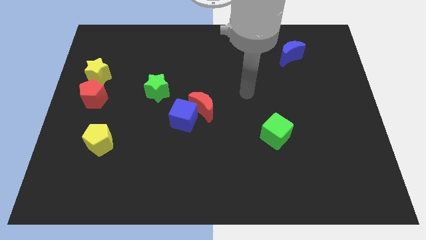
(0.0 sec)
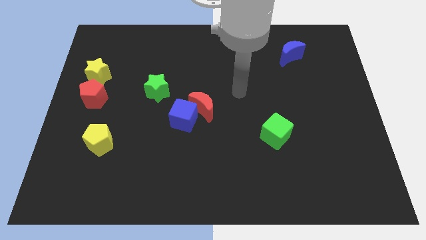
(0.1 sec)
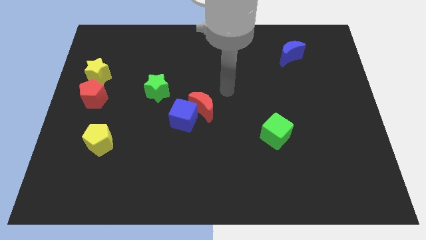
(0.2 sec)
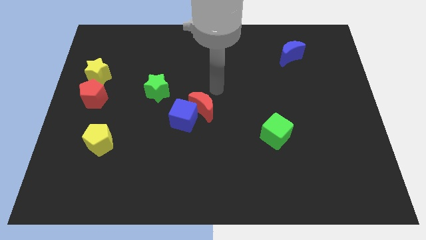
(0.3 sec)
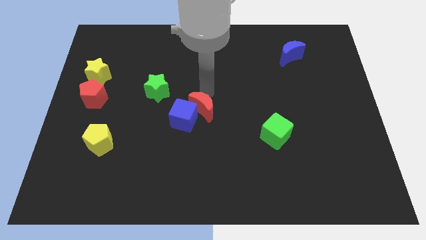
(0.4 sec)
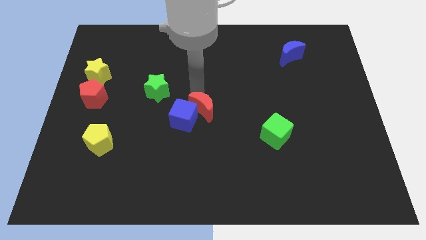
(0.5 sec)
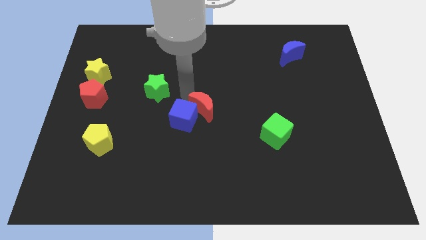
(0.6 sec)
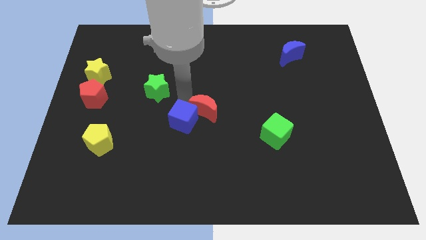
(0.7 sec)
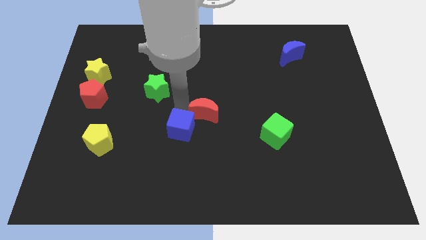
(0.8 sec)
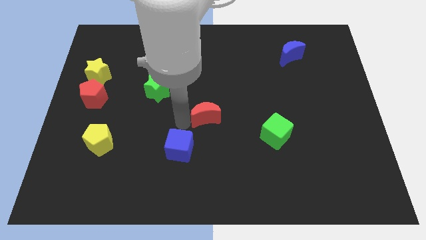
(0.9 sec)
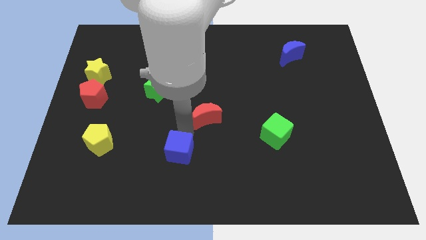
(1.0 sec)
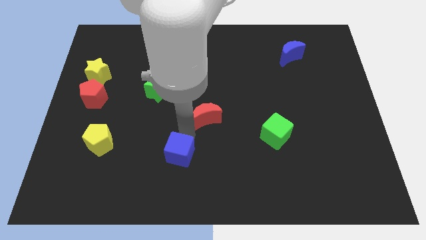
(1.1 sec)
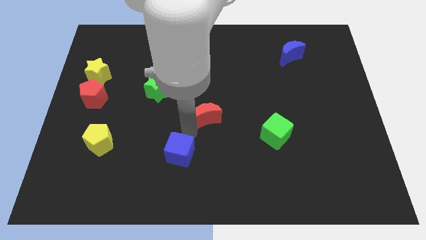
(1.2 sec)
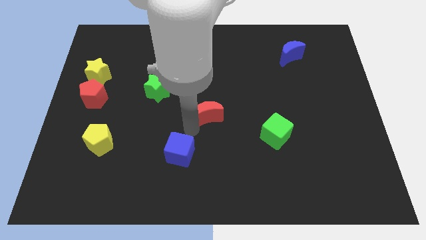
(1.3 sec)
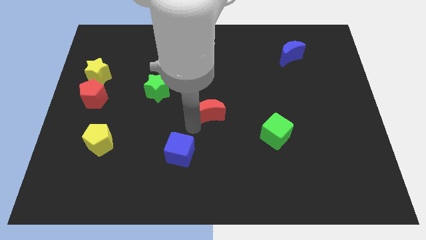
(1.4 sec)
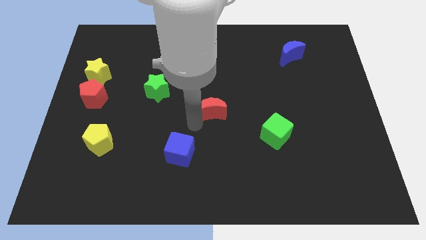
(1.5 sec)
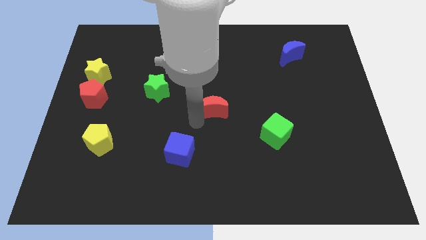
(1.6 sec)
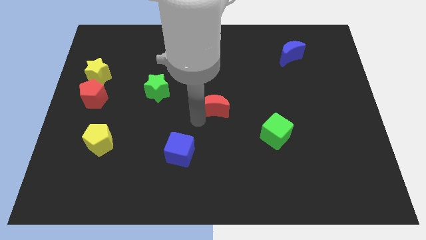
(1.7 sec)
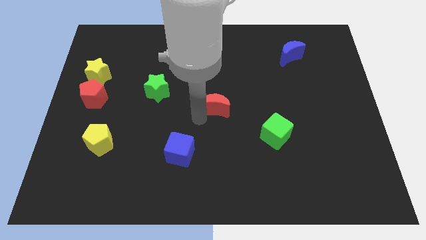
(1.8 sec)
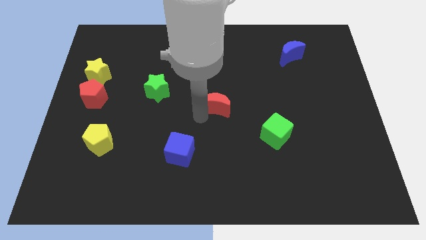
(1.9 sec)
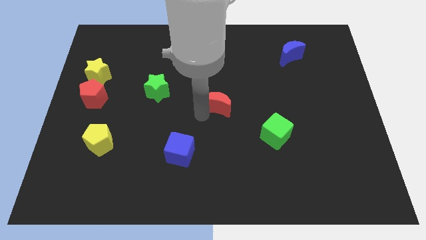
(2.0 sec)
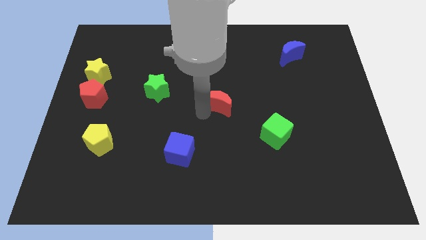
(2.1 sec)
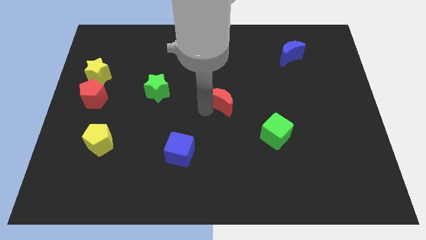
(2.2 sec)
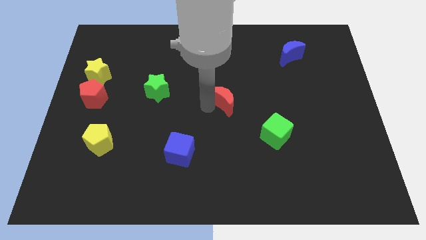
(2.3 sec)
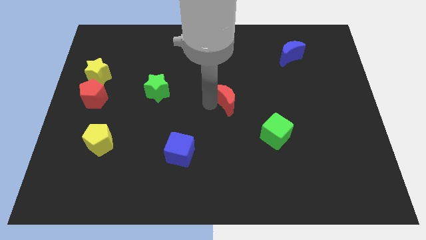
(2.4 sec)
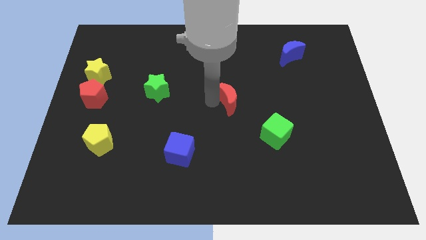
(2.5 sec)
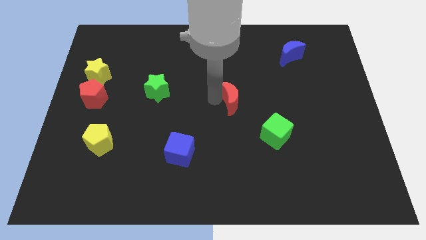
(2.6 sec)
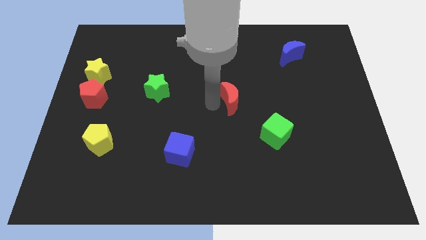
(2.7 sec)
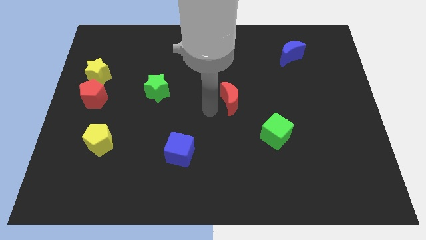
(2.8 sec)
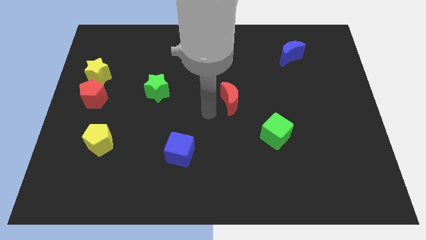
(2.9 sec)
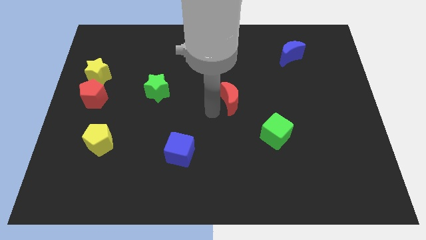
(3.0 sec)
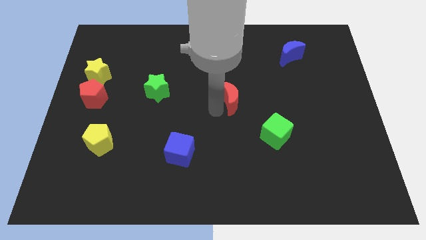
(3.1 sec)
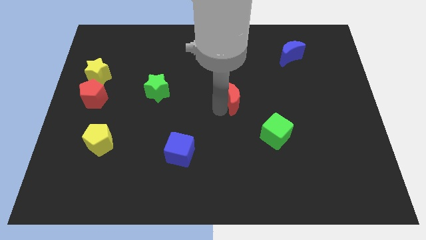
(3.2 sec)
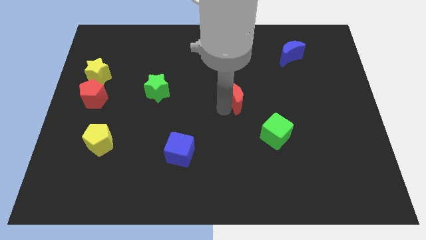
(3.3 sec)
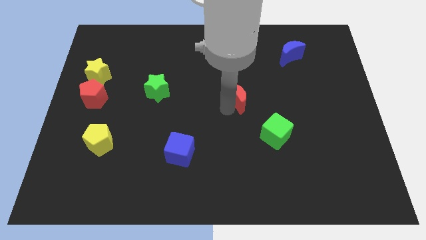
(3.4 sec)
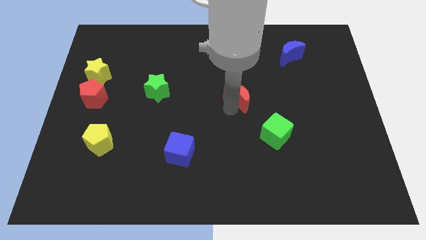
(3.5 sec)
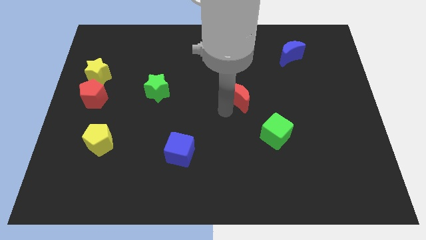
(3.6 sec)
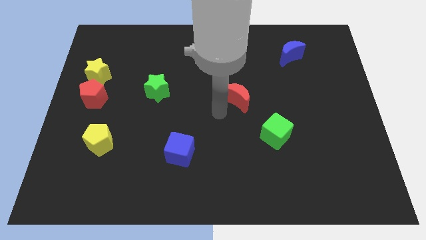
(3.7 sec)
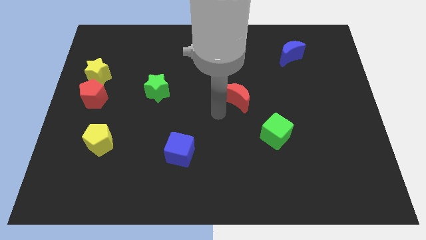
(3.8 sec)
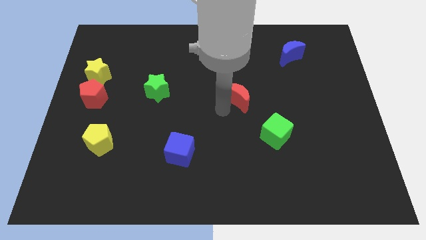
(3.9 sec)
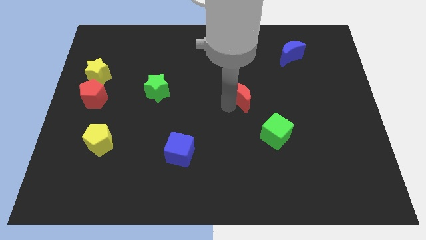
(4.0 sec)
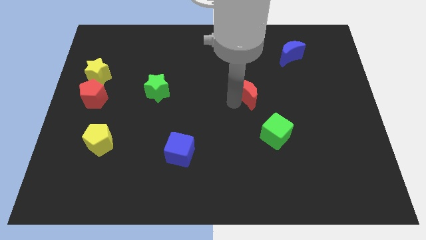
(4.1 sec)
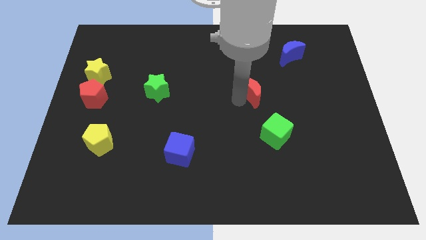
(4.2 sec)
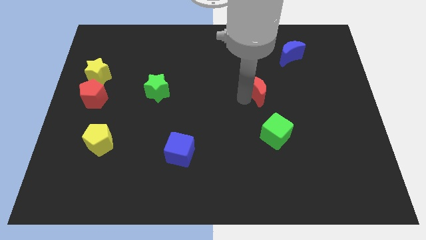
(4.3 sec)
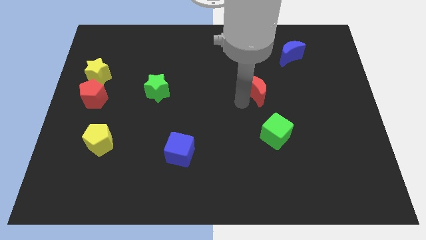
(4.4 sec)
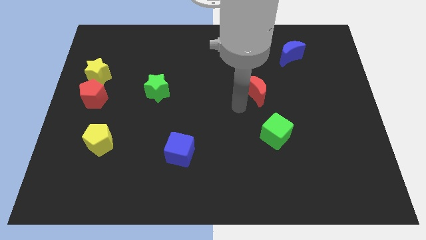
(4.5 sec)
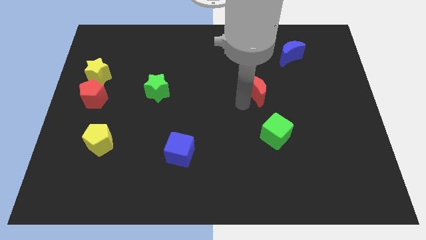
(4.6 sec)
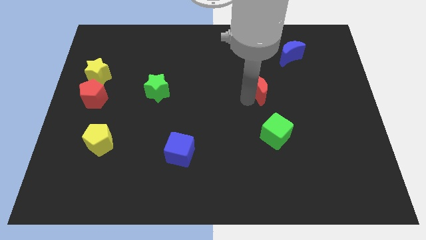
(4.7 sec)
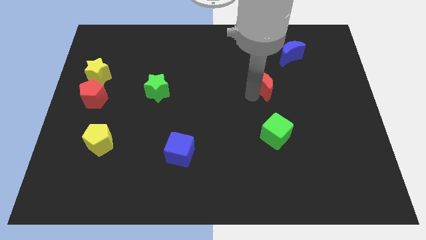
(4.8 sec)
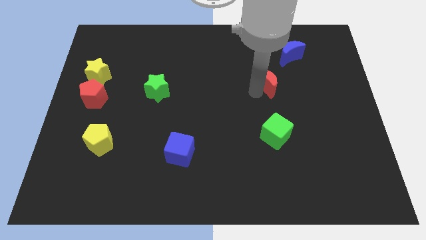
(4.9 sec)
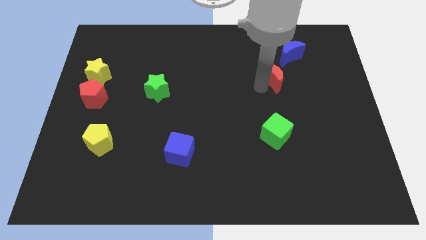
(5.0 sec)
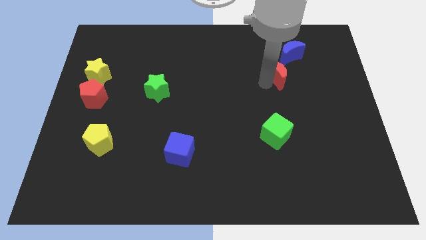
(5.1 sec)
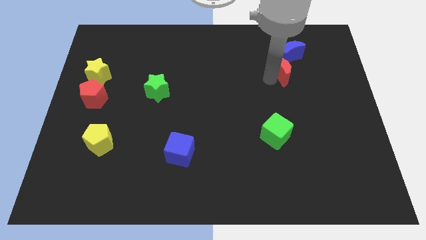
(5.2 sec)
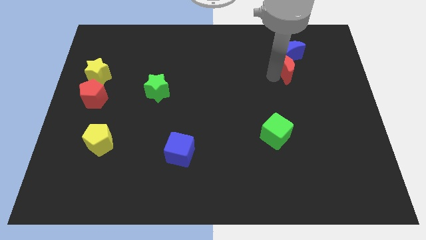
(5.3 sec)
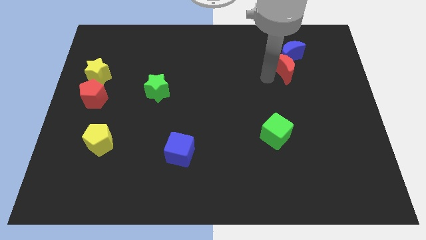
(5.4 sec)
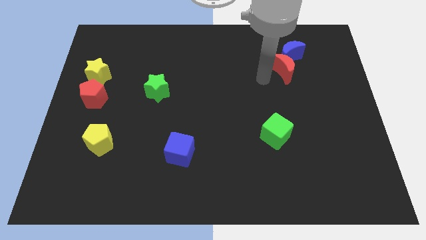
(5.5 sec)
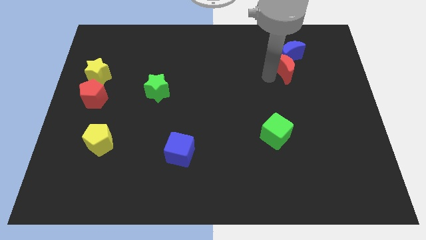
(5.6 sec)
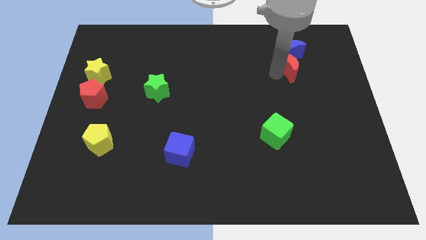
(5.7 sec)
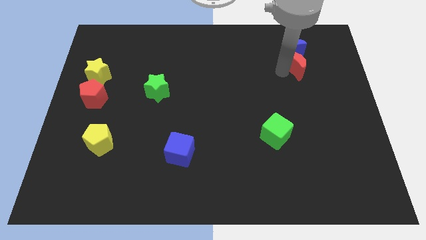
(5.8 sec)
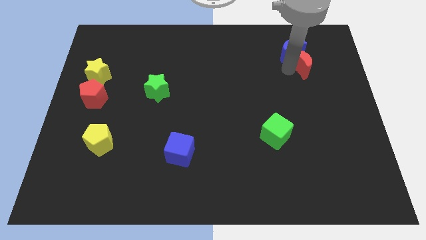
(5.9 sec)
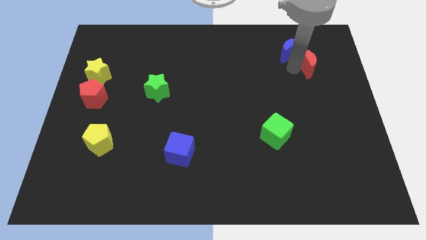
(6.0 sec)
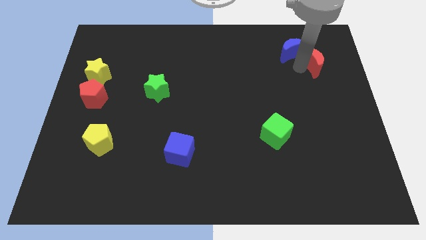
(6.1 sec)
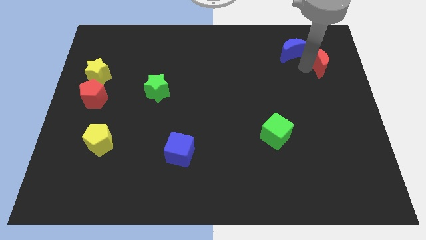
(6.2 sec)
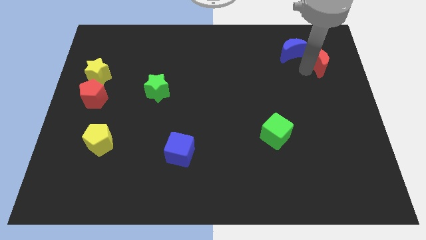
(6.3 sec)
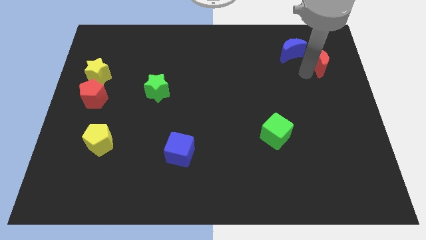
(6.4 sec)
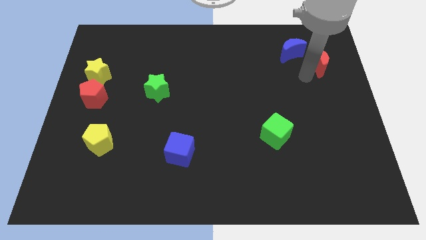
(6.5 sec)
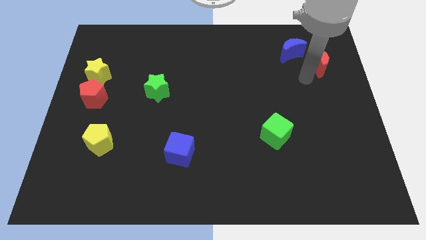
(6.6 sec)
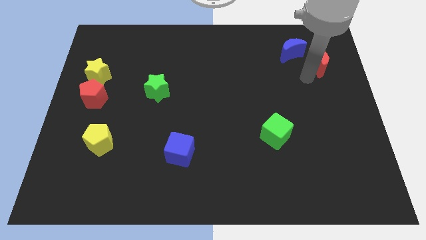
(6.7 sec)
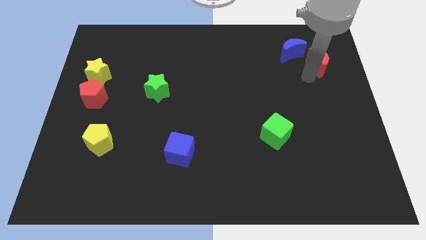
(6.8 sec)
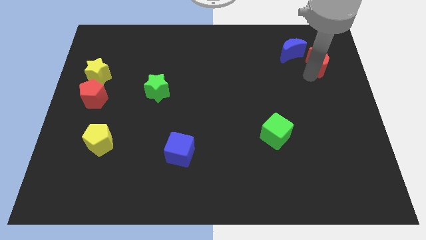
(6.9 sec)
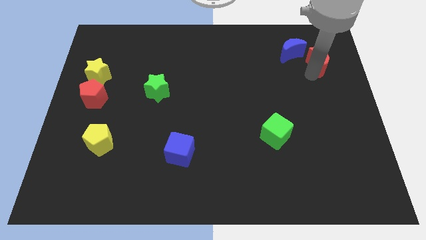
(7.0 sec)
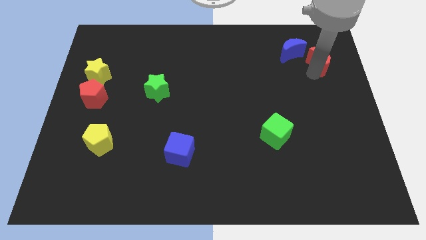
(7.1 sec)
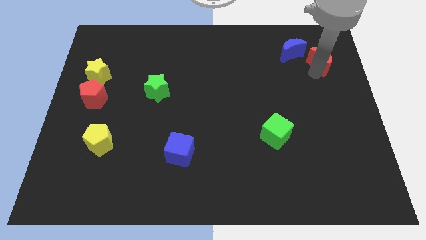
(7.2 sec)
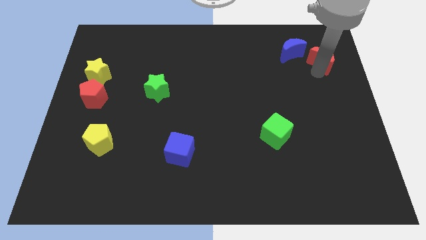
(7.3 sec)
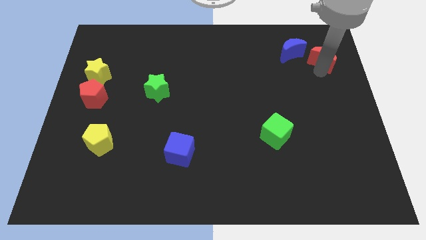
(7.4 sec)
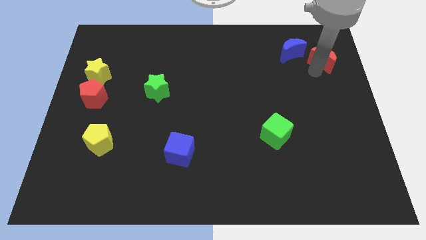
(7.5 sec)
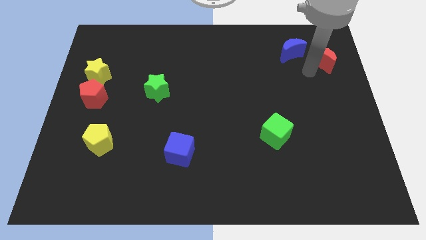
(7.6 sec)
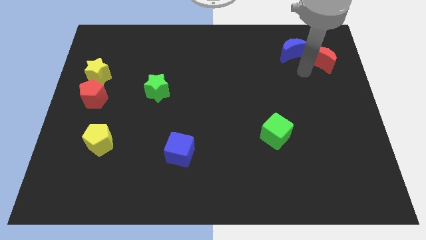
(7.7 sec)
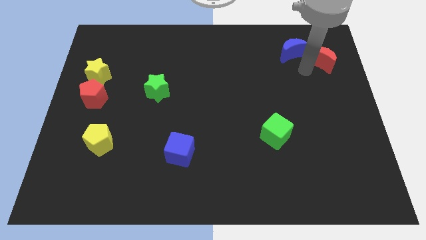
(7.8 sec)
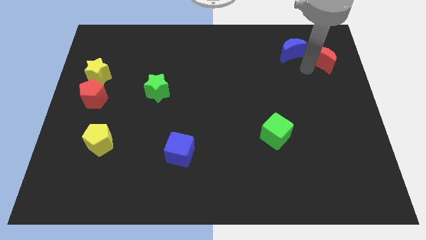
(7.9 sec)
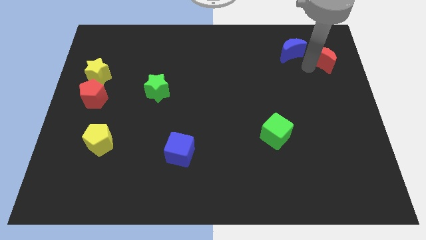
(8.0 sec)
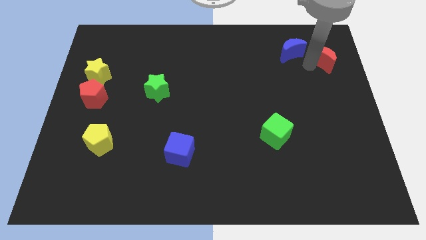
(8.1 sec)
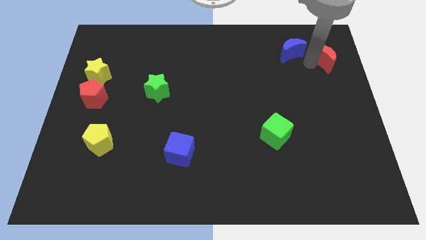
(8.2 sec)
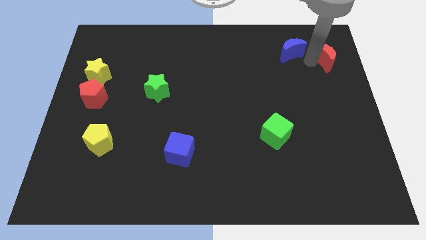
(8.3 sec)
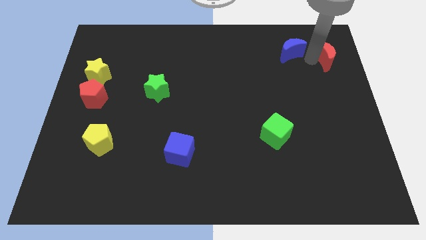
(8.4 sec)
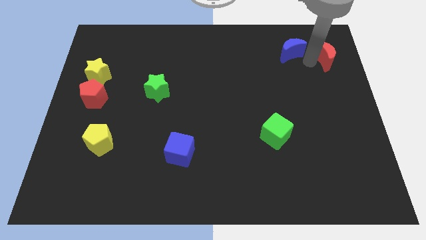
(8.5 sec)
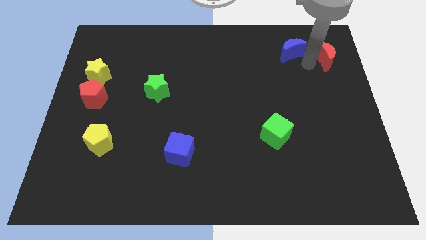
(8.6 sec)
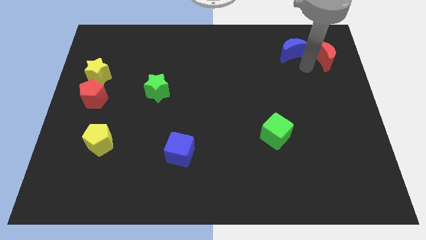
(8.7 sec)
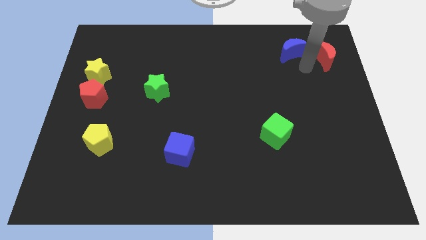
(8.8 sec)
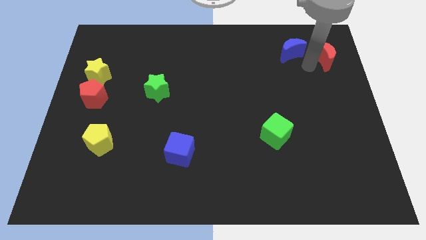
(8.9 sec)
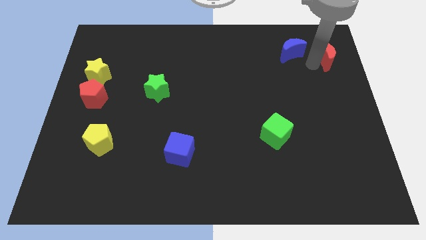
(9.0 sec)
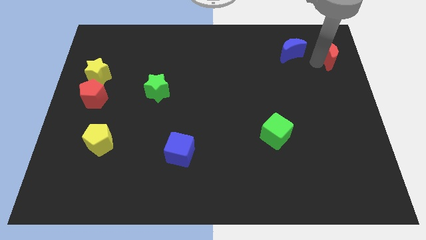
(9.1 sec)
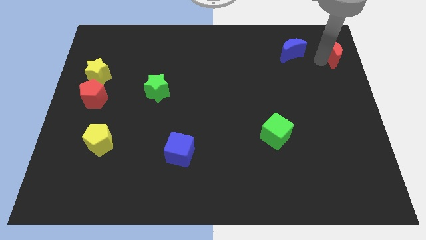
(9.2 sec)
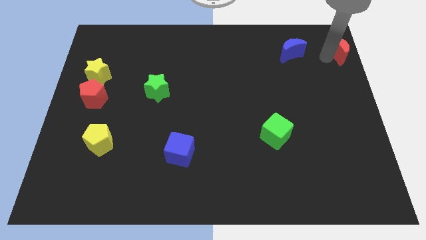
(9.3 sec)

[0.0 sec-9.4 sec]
slide the red moon to the top right corner
